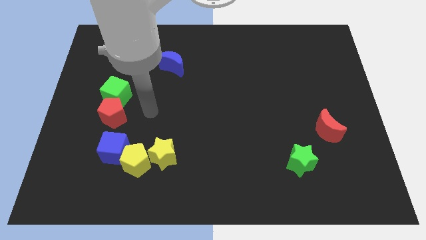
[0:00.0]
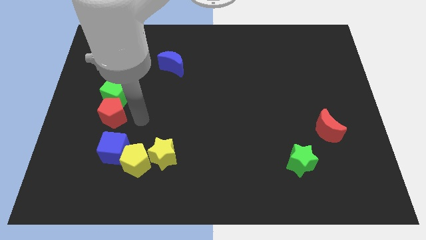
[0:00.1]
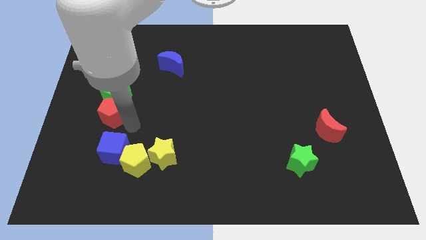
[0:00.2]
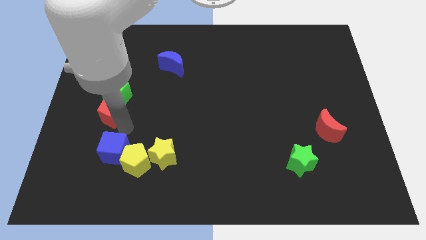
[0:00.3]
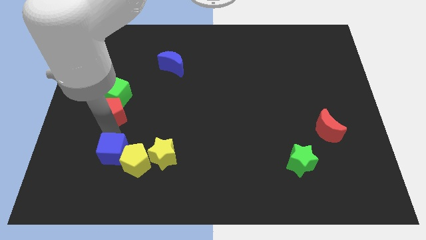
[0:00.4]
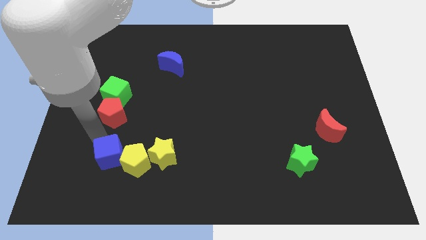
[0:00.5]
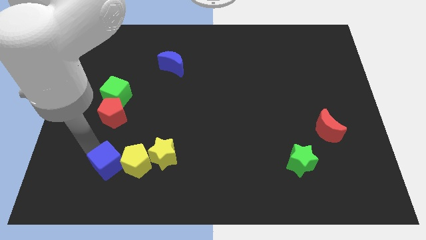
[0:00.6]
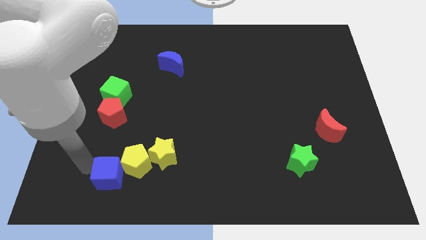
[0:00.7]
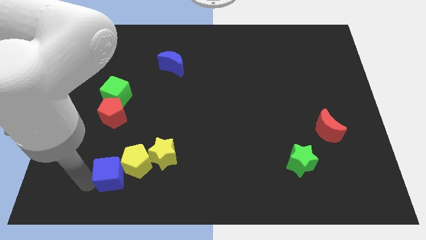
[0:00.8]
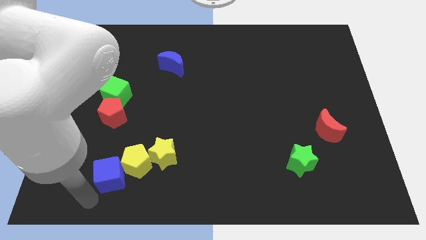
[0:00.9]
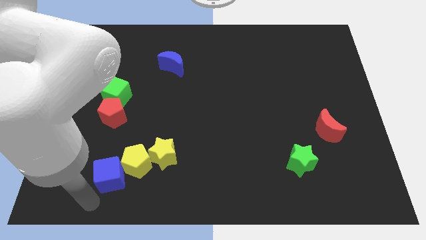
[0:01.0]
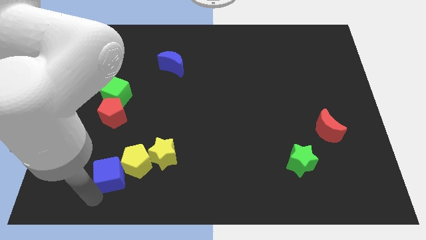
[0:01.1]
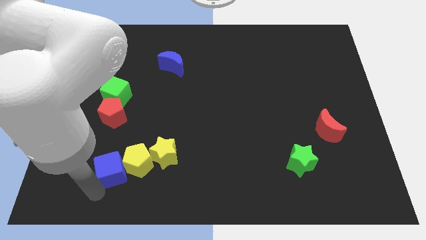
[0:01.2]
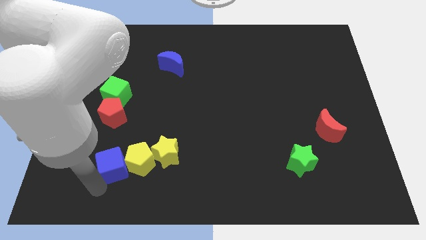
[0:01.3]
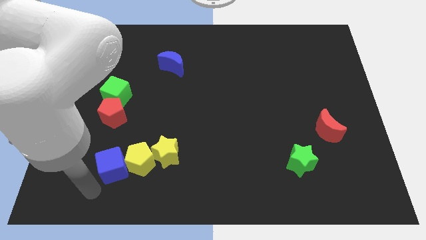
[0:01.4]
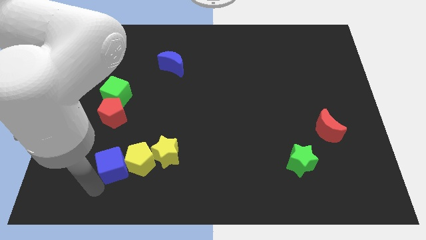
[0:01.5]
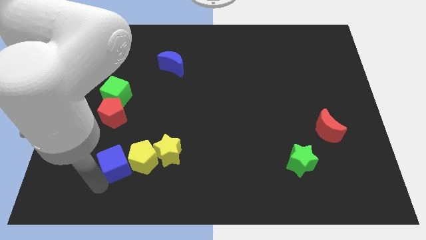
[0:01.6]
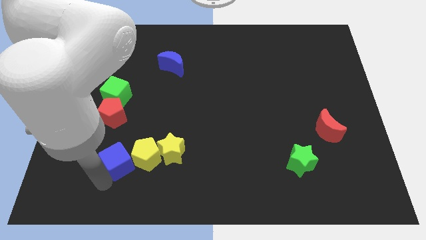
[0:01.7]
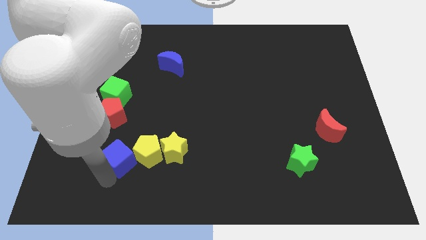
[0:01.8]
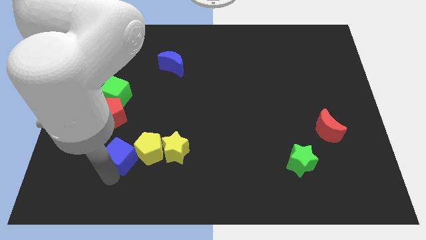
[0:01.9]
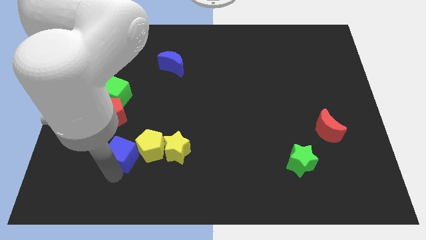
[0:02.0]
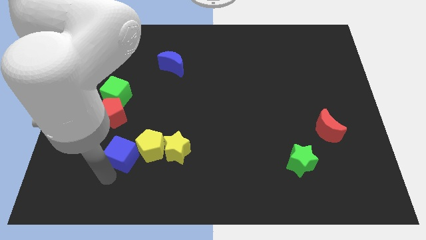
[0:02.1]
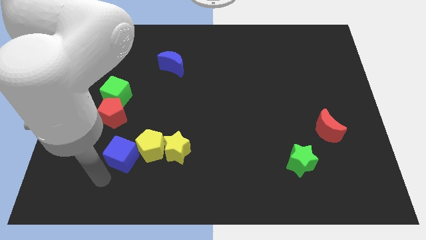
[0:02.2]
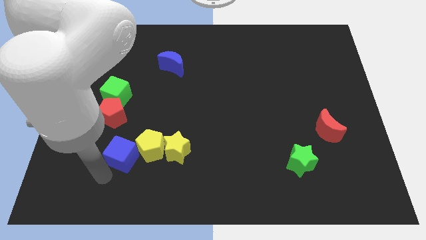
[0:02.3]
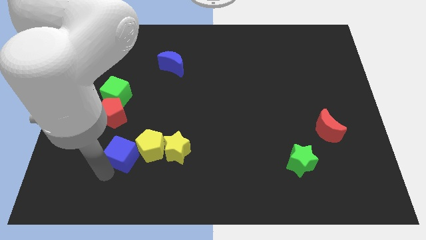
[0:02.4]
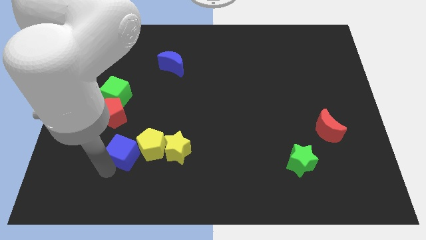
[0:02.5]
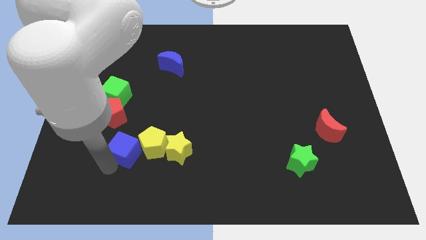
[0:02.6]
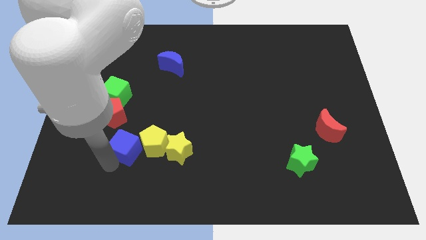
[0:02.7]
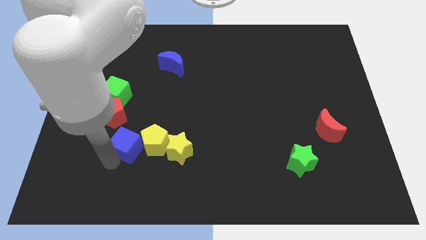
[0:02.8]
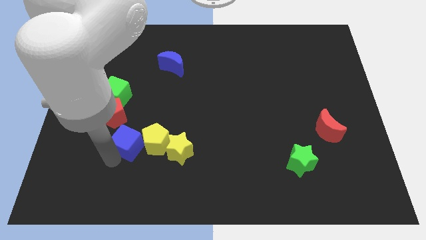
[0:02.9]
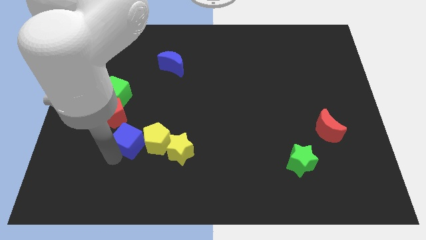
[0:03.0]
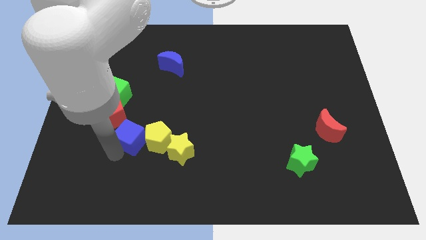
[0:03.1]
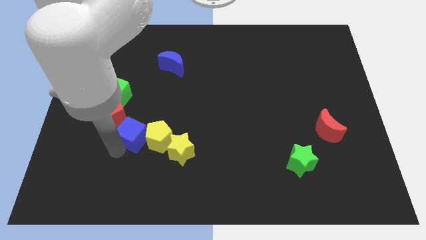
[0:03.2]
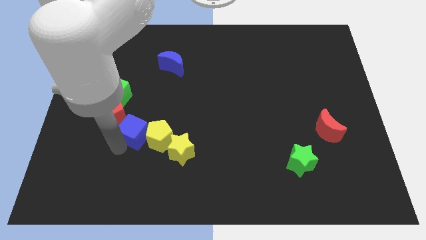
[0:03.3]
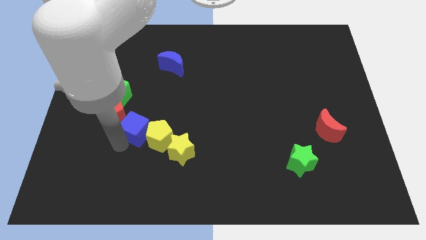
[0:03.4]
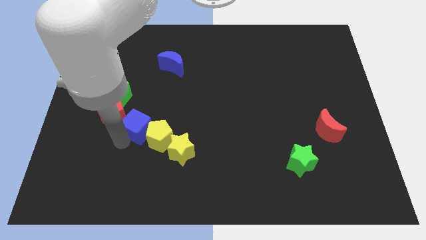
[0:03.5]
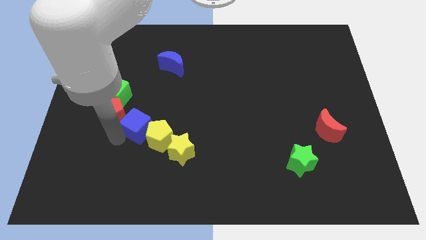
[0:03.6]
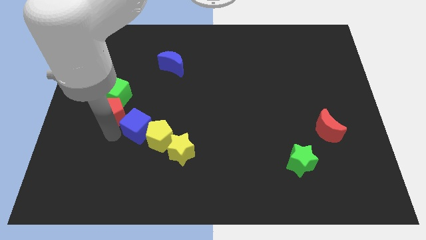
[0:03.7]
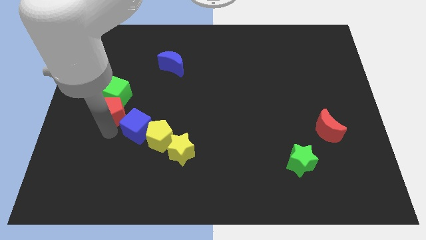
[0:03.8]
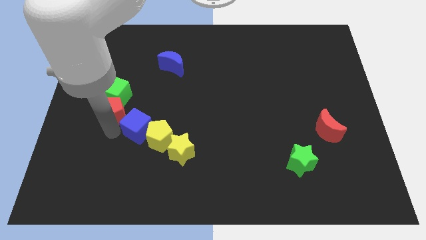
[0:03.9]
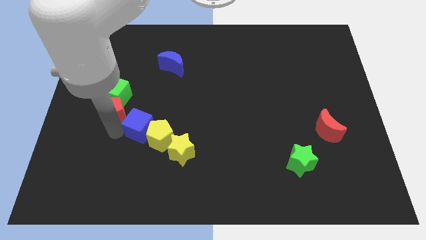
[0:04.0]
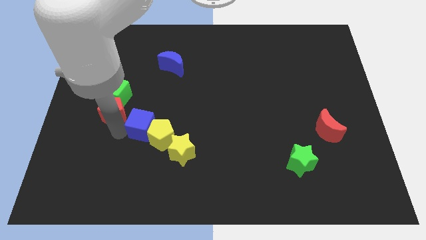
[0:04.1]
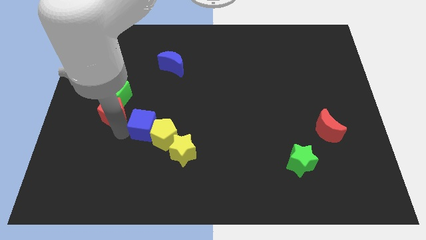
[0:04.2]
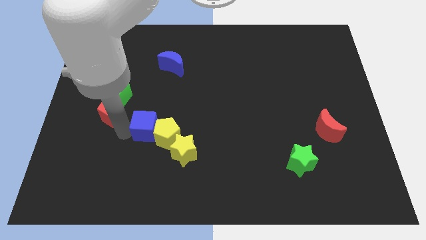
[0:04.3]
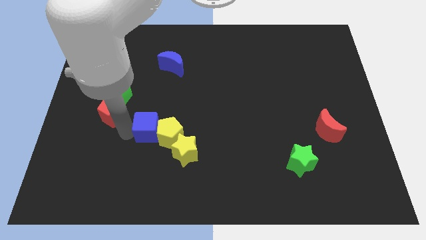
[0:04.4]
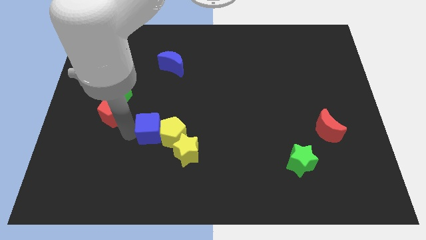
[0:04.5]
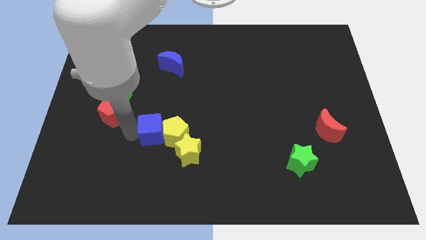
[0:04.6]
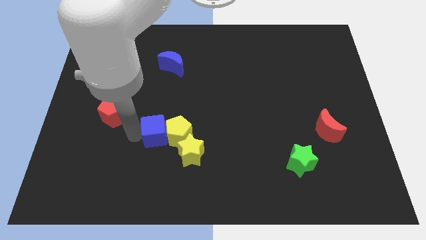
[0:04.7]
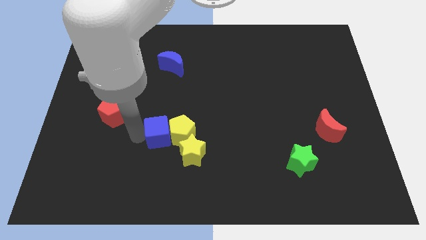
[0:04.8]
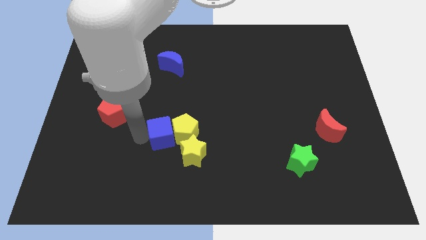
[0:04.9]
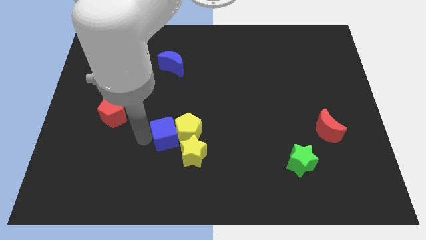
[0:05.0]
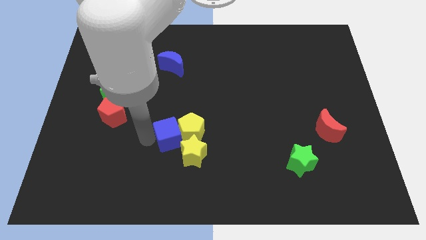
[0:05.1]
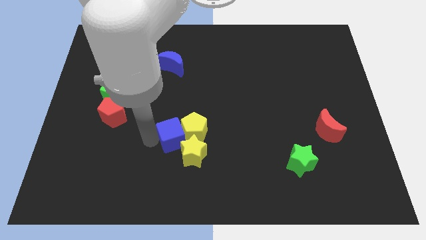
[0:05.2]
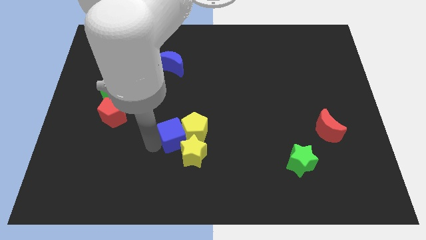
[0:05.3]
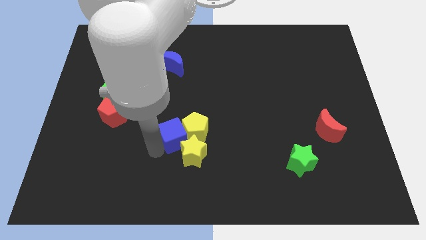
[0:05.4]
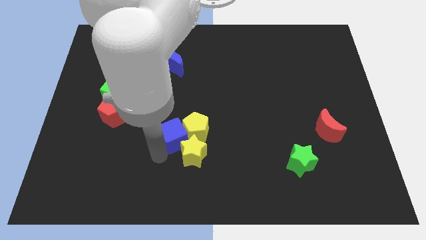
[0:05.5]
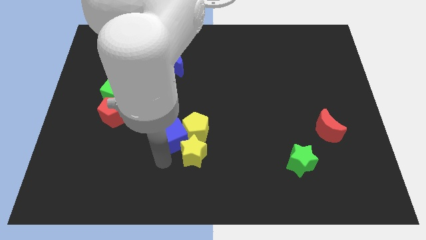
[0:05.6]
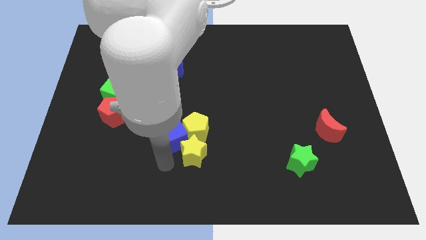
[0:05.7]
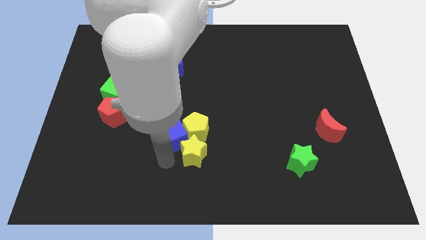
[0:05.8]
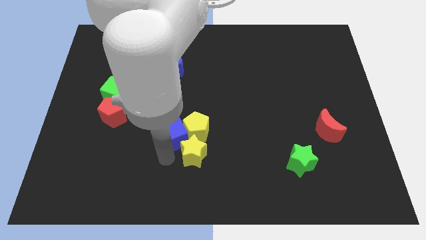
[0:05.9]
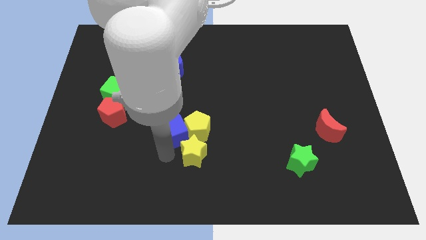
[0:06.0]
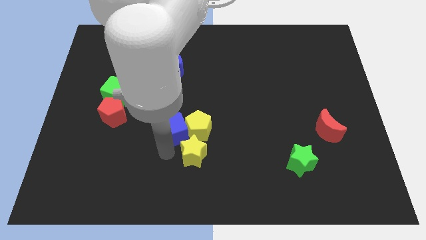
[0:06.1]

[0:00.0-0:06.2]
push the blue cube to the center
